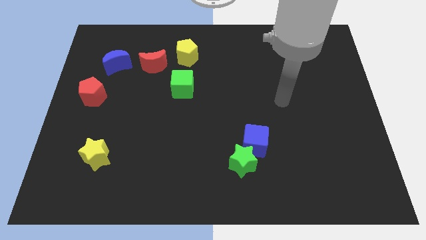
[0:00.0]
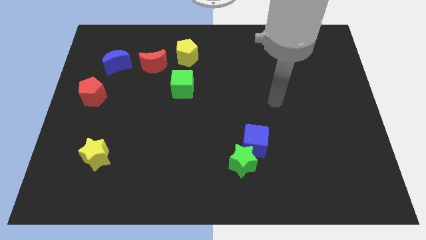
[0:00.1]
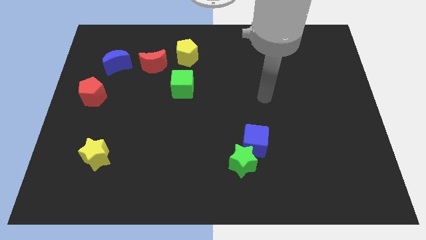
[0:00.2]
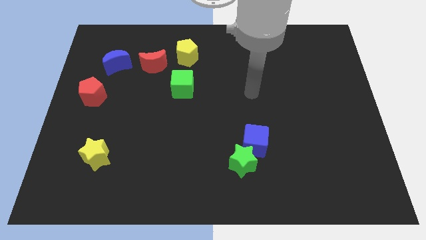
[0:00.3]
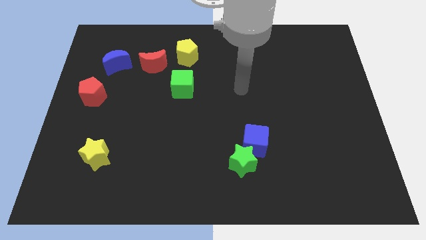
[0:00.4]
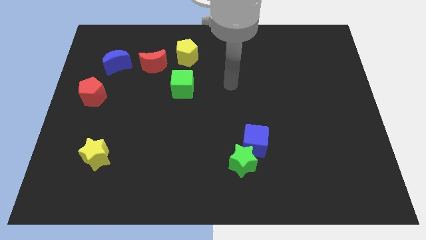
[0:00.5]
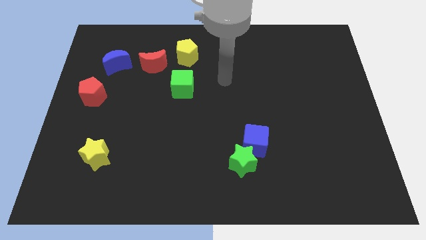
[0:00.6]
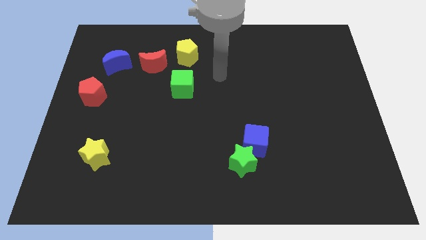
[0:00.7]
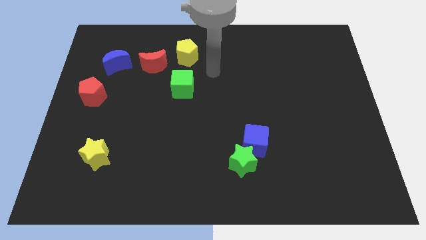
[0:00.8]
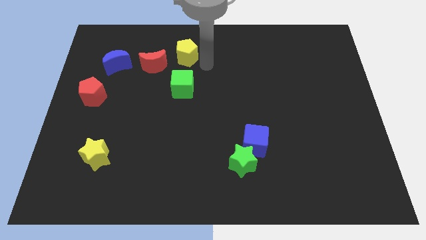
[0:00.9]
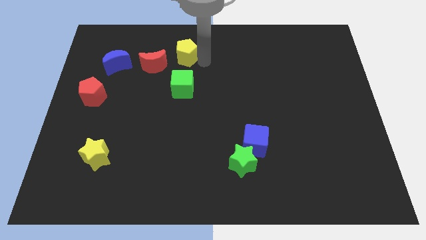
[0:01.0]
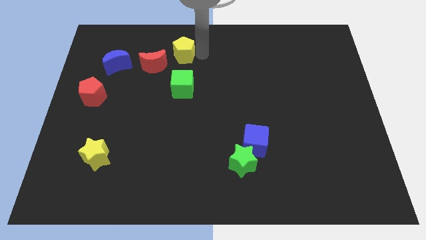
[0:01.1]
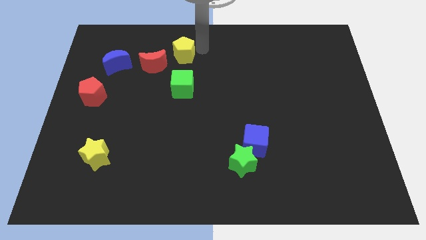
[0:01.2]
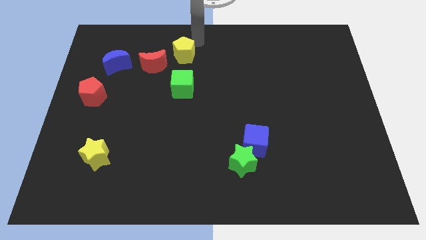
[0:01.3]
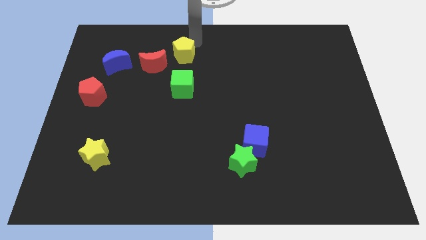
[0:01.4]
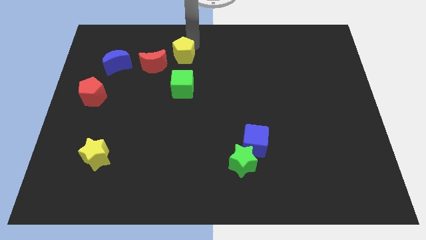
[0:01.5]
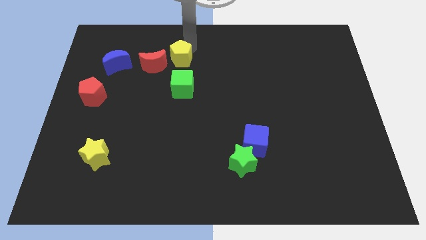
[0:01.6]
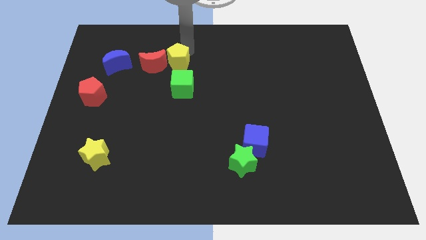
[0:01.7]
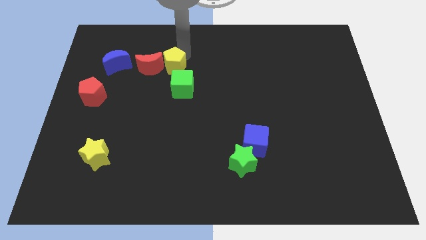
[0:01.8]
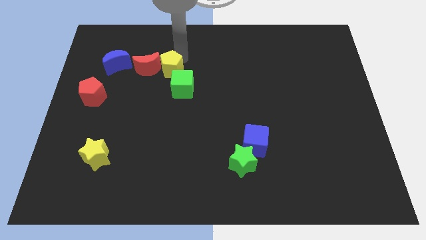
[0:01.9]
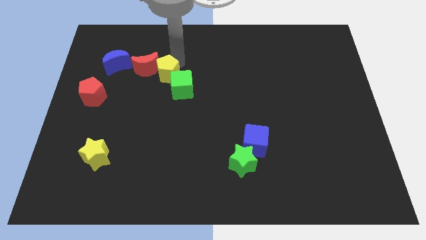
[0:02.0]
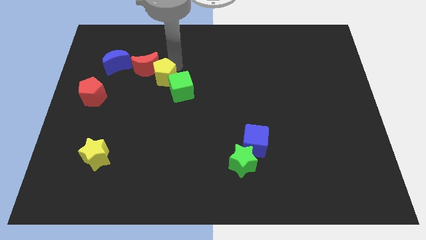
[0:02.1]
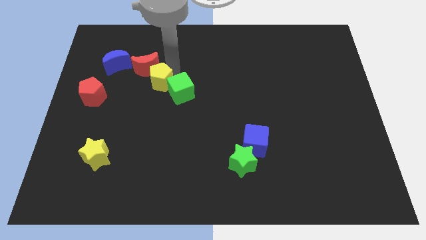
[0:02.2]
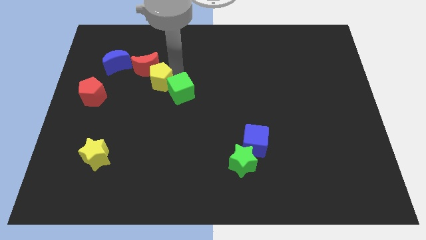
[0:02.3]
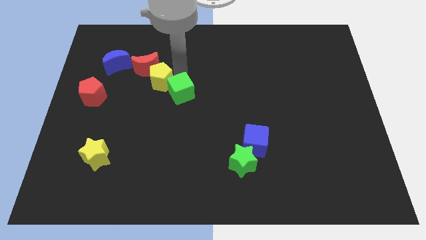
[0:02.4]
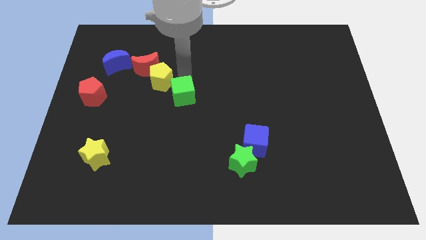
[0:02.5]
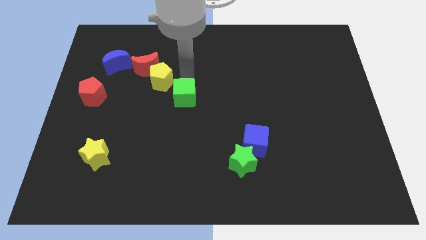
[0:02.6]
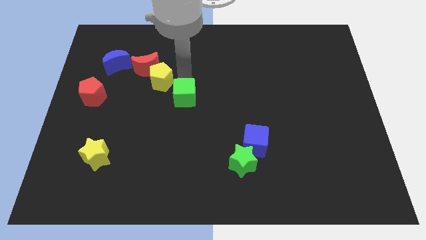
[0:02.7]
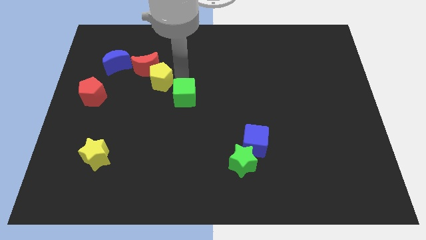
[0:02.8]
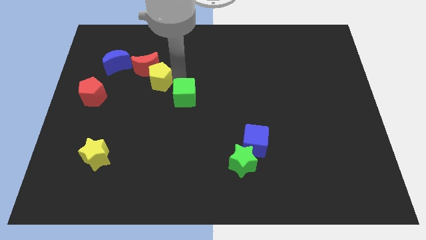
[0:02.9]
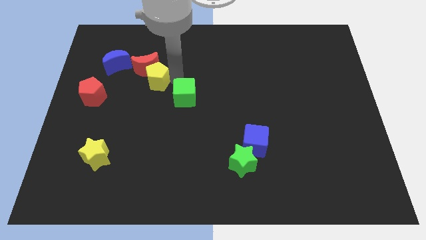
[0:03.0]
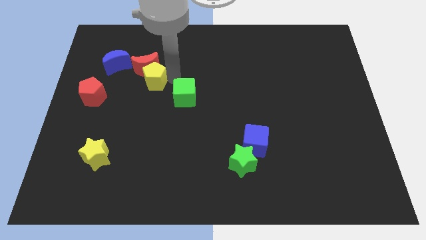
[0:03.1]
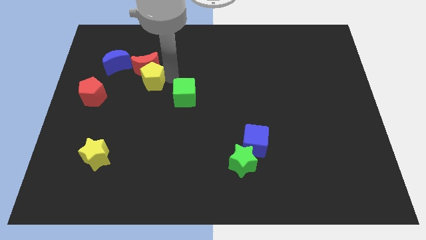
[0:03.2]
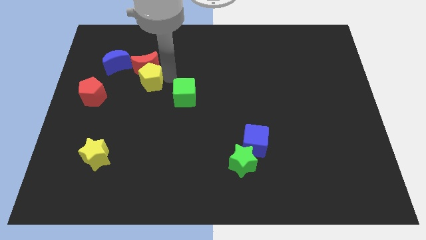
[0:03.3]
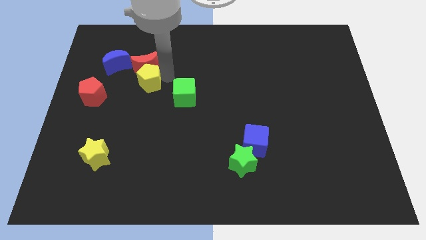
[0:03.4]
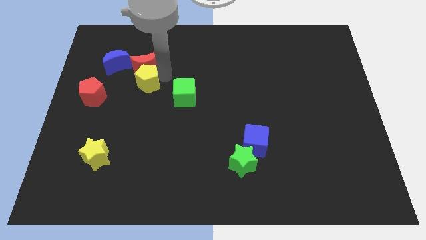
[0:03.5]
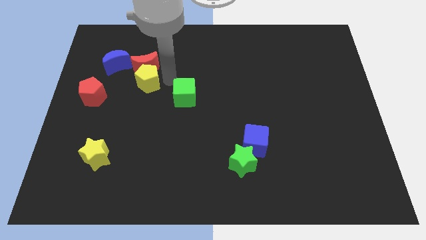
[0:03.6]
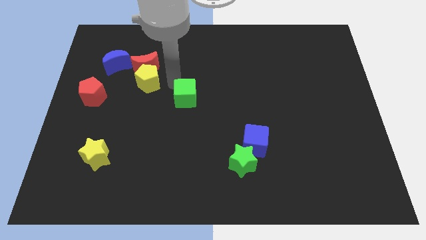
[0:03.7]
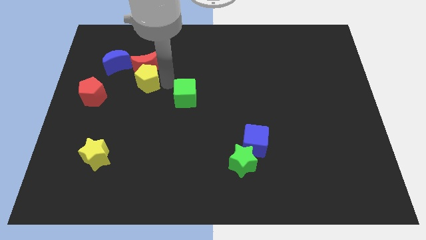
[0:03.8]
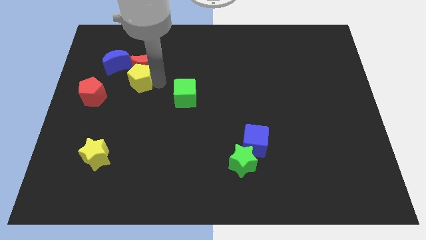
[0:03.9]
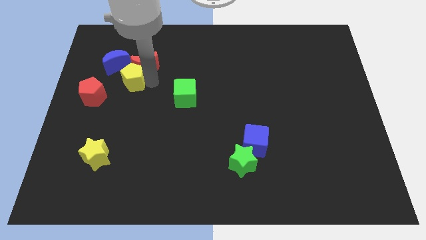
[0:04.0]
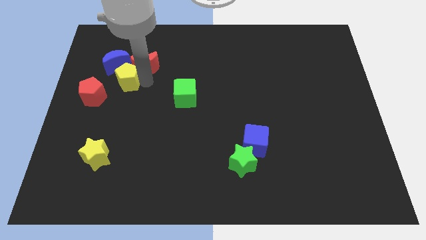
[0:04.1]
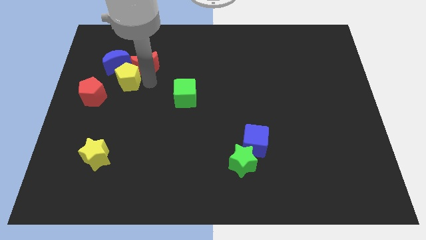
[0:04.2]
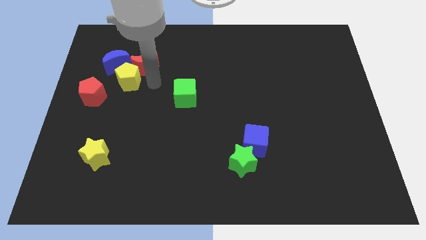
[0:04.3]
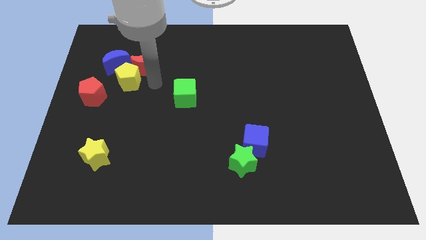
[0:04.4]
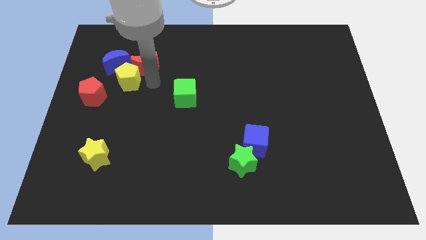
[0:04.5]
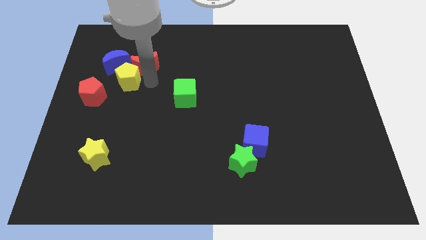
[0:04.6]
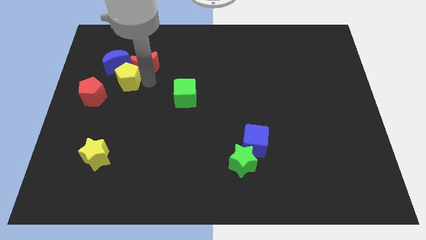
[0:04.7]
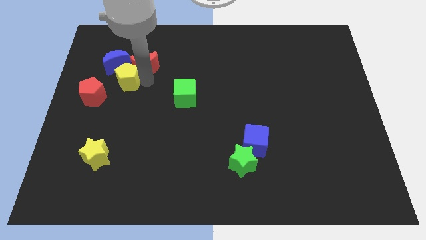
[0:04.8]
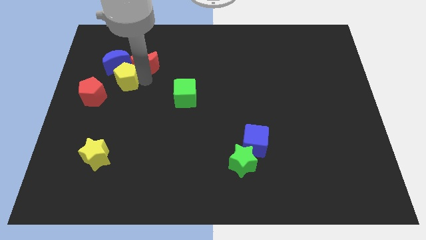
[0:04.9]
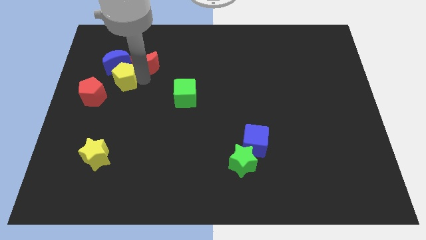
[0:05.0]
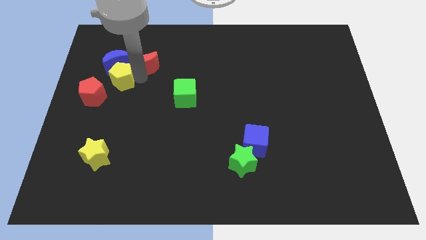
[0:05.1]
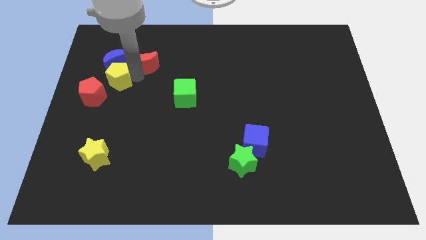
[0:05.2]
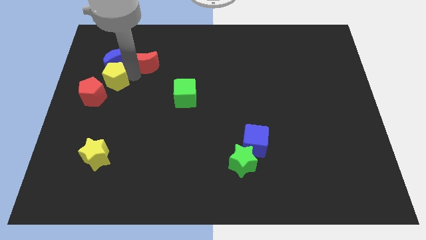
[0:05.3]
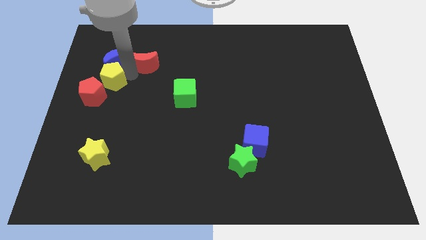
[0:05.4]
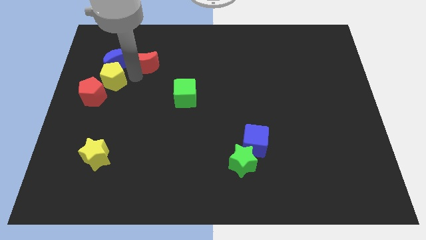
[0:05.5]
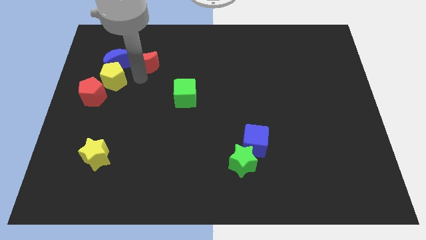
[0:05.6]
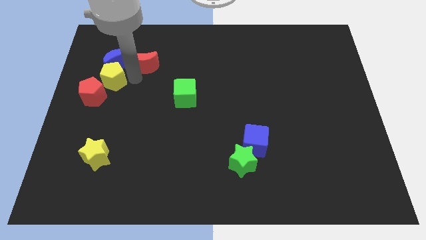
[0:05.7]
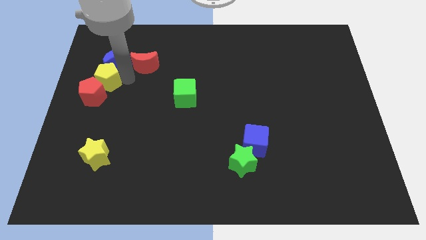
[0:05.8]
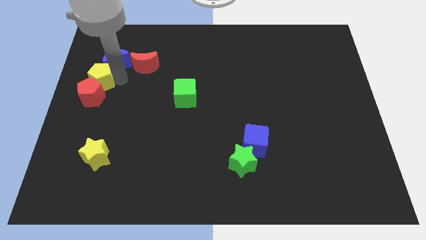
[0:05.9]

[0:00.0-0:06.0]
move the yellow pentagon to the center left

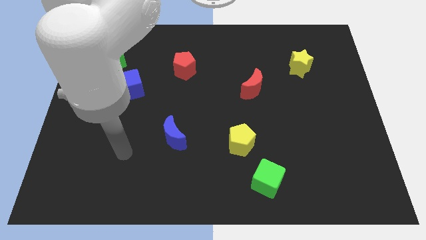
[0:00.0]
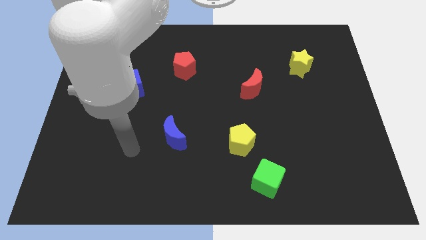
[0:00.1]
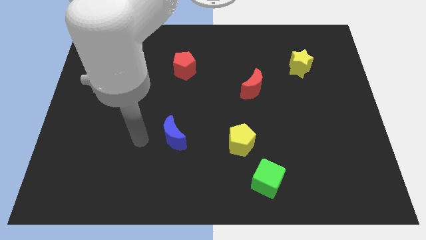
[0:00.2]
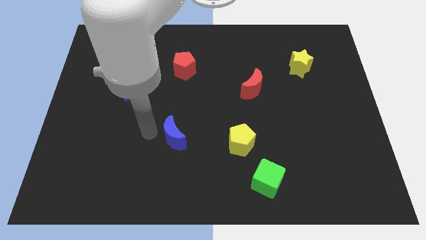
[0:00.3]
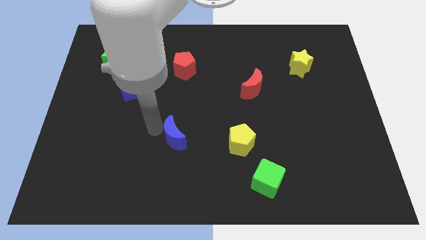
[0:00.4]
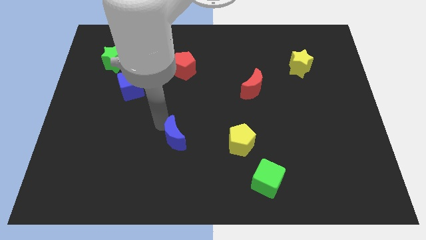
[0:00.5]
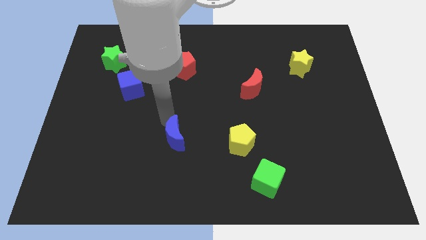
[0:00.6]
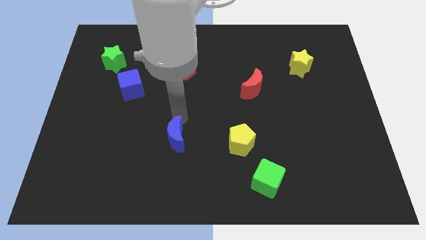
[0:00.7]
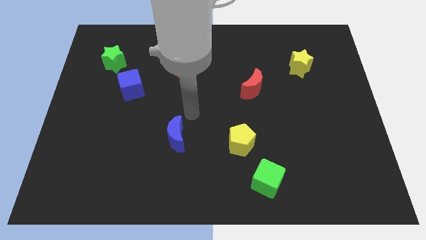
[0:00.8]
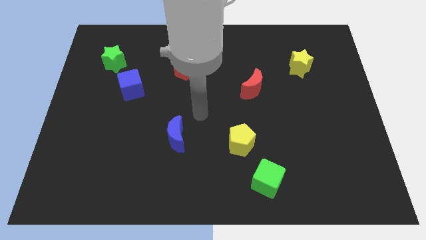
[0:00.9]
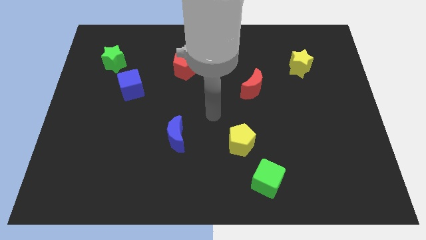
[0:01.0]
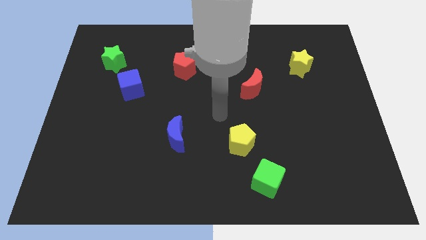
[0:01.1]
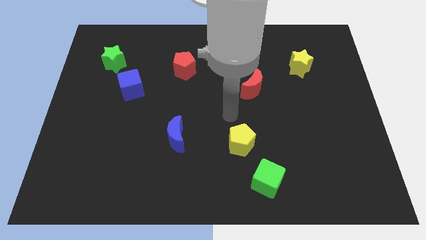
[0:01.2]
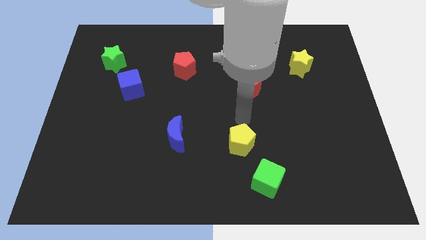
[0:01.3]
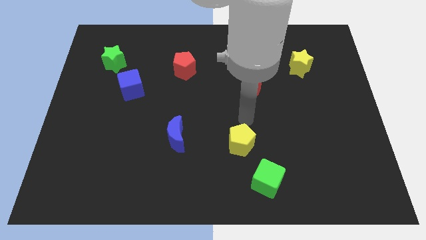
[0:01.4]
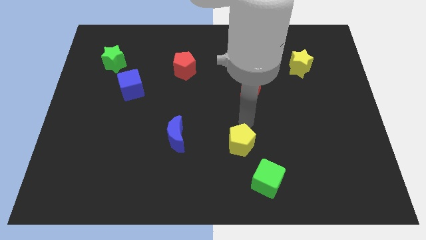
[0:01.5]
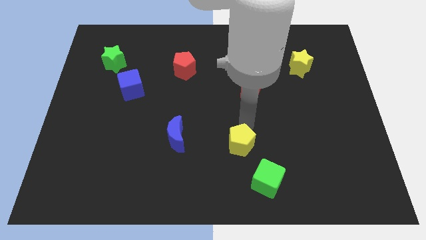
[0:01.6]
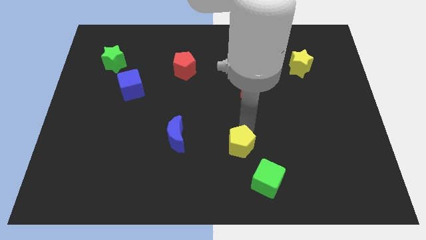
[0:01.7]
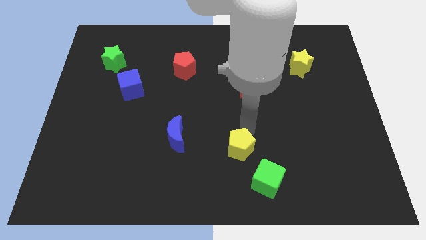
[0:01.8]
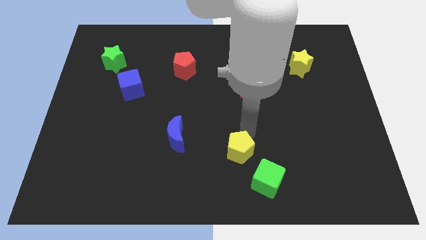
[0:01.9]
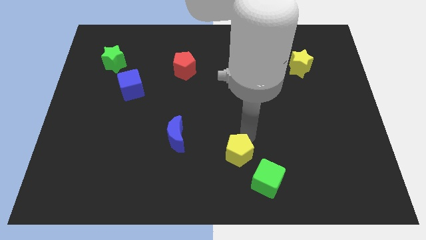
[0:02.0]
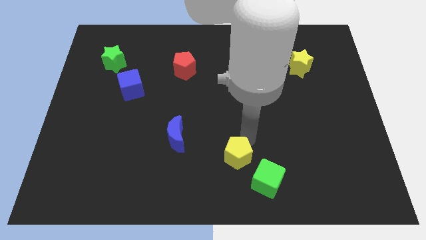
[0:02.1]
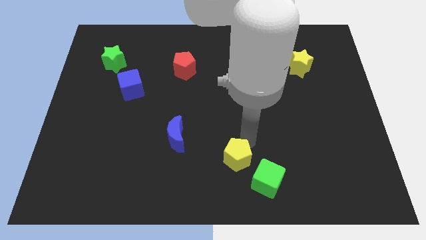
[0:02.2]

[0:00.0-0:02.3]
push the yellow pentagon to the bottom
